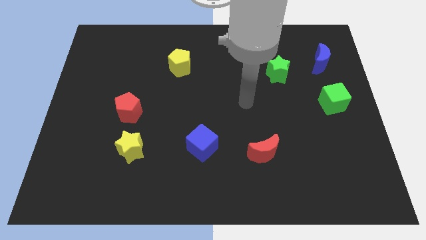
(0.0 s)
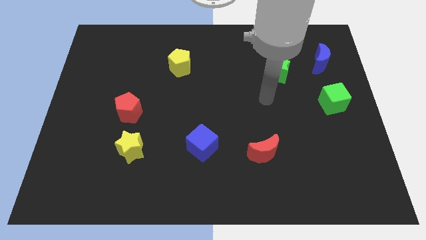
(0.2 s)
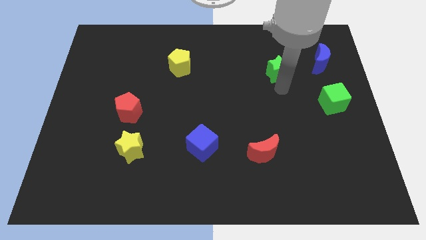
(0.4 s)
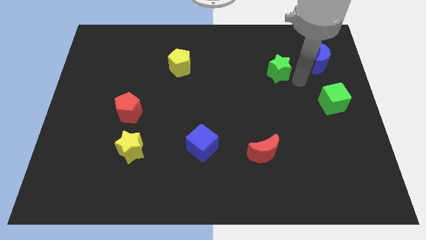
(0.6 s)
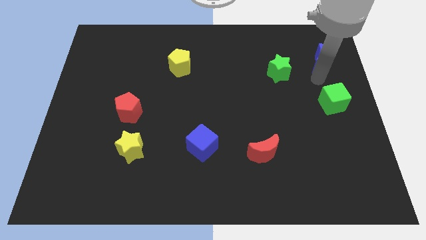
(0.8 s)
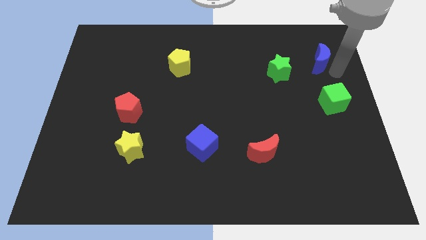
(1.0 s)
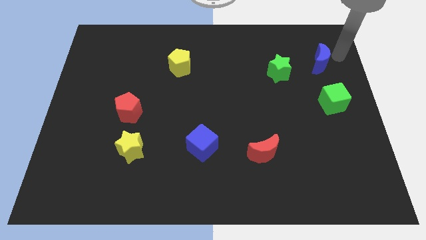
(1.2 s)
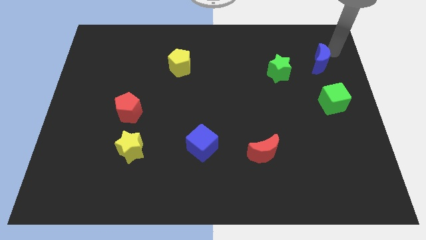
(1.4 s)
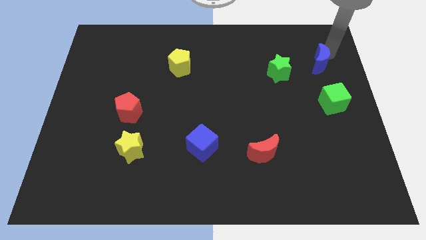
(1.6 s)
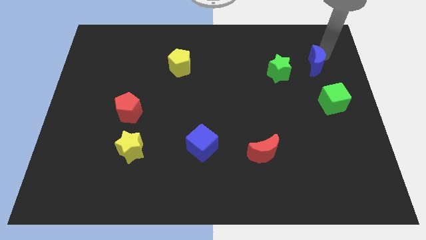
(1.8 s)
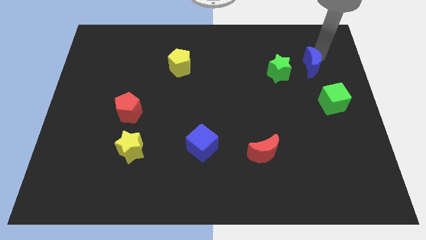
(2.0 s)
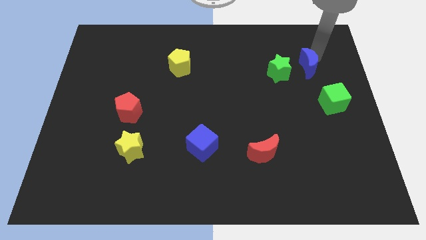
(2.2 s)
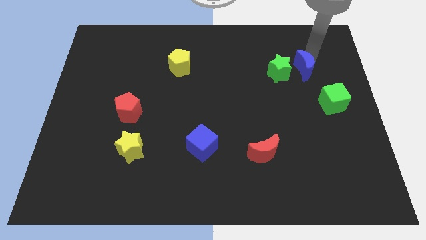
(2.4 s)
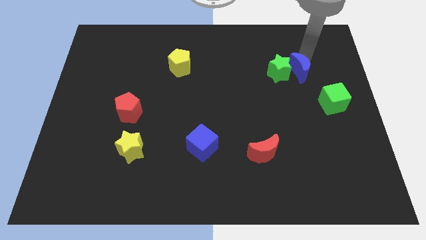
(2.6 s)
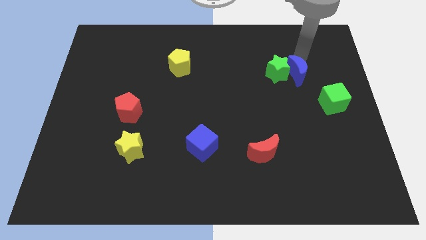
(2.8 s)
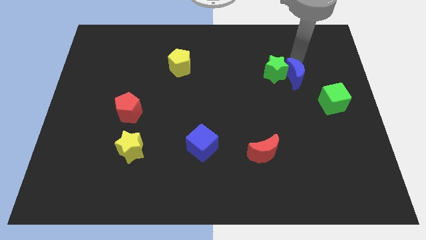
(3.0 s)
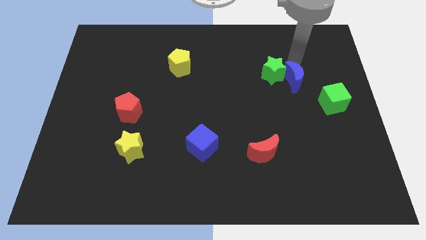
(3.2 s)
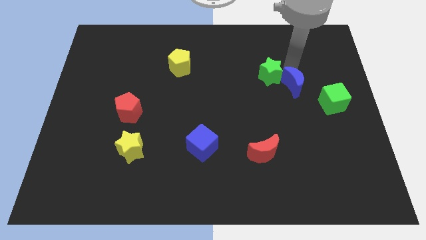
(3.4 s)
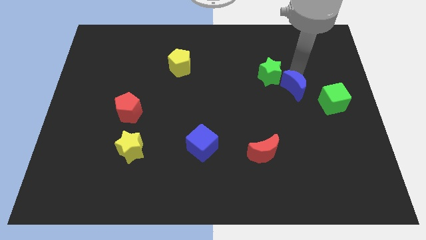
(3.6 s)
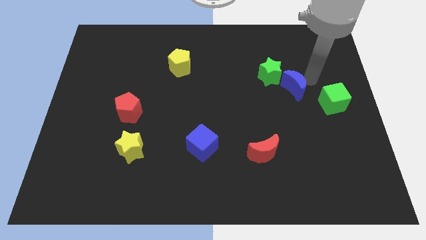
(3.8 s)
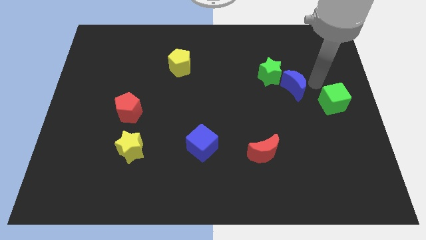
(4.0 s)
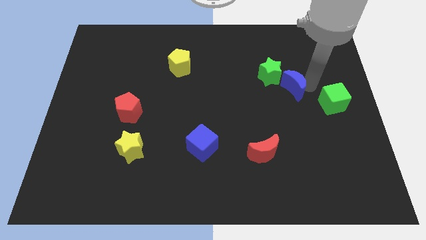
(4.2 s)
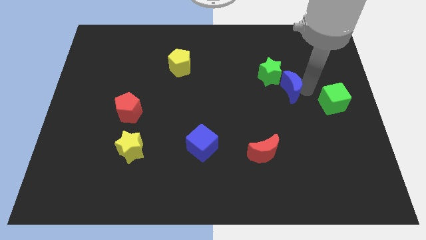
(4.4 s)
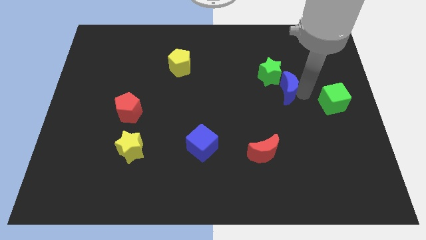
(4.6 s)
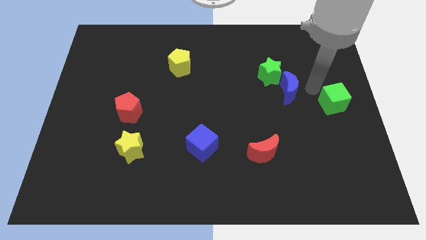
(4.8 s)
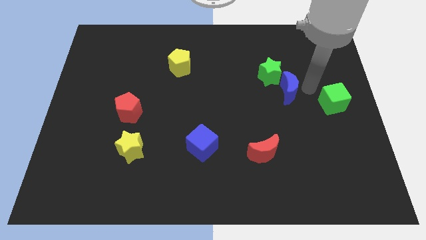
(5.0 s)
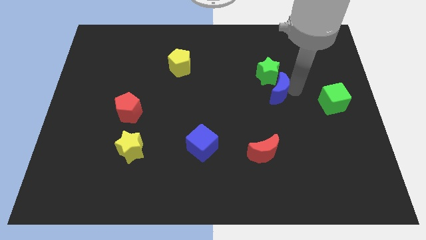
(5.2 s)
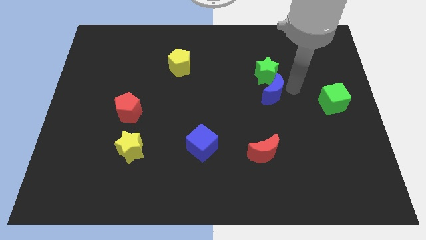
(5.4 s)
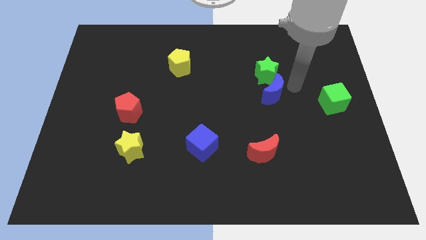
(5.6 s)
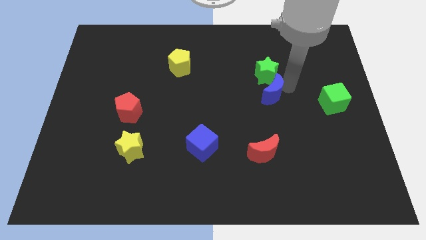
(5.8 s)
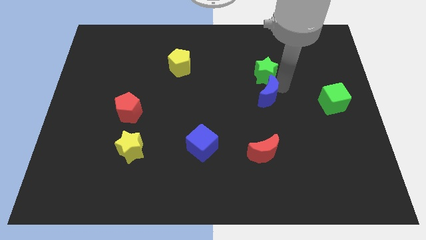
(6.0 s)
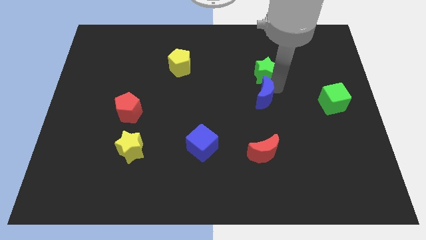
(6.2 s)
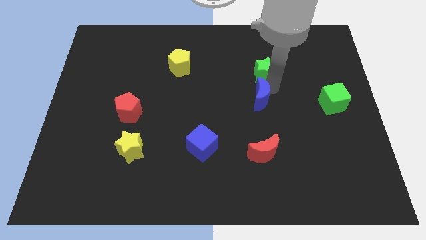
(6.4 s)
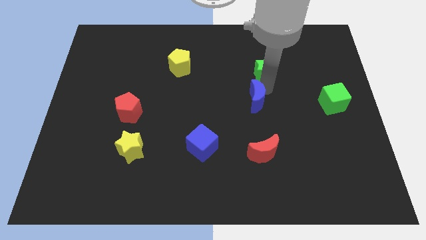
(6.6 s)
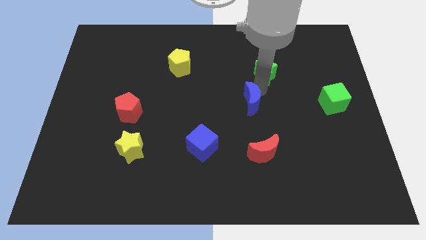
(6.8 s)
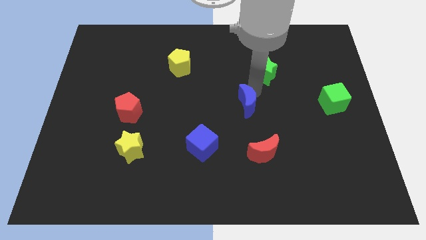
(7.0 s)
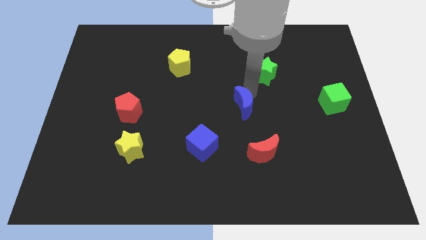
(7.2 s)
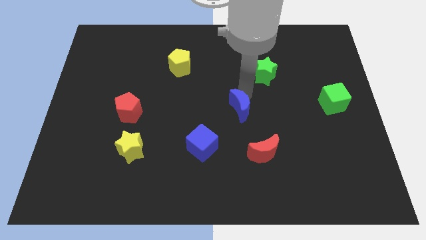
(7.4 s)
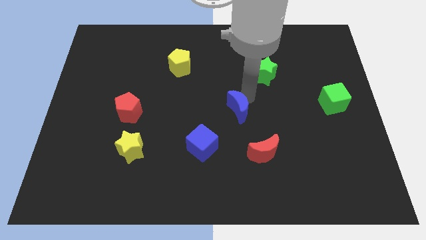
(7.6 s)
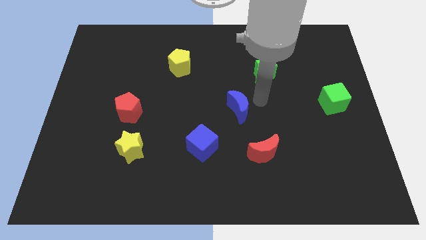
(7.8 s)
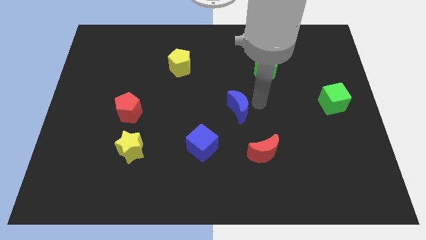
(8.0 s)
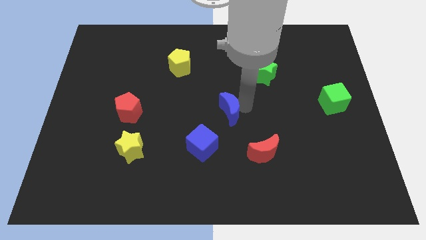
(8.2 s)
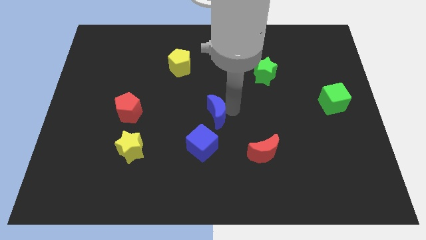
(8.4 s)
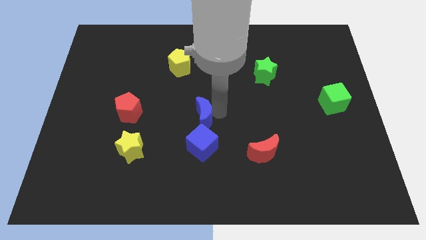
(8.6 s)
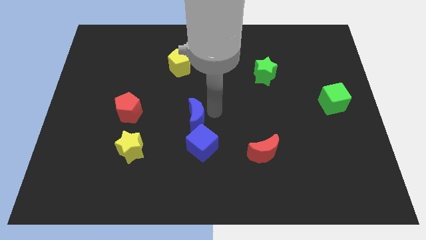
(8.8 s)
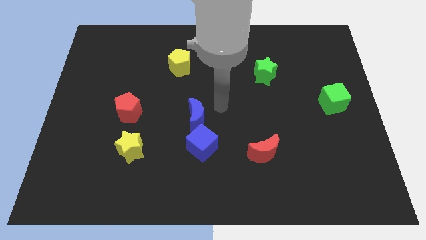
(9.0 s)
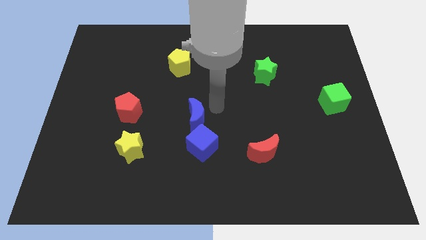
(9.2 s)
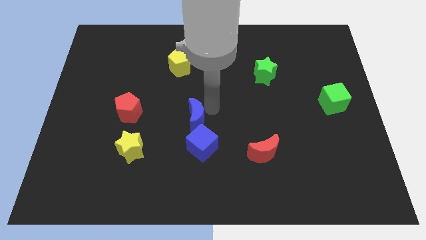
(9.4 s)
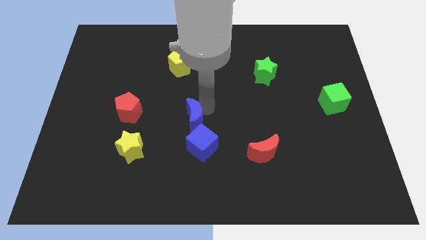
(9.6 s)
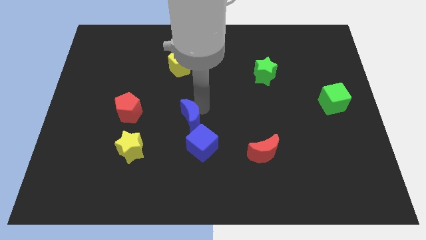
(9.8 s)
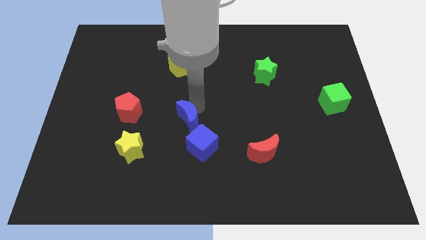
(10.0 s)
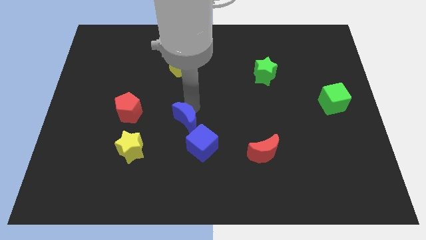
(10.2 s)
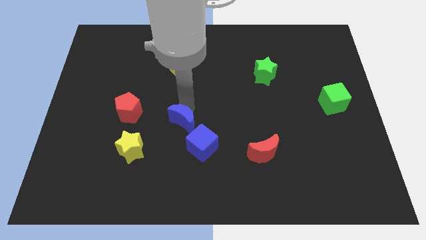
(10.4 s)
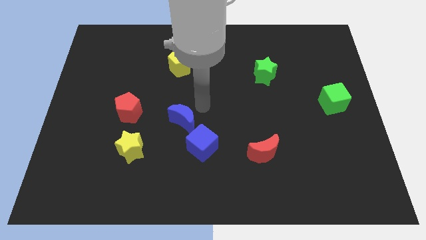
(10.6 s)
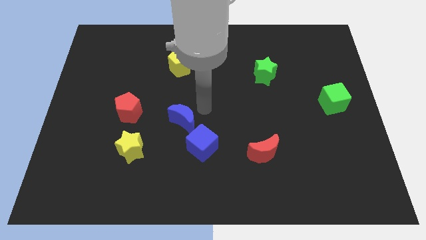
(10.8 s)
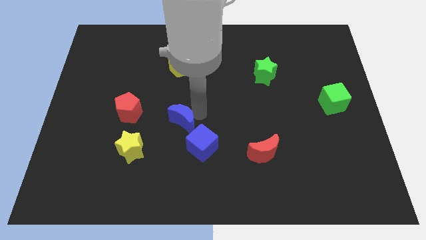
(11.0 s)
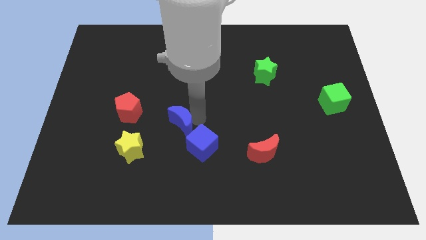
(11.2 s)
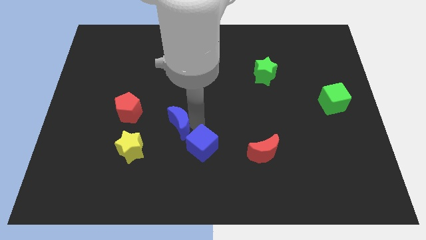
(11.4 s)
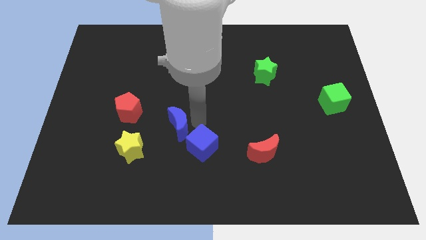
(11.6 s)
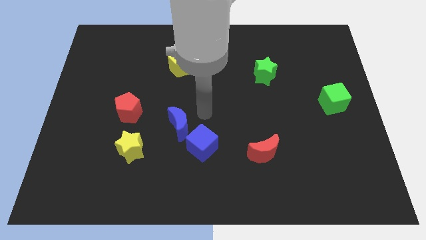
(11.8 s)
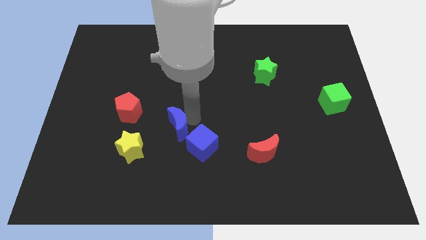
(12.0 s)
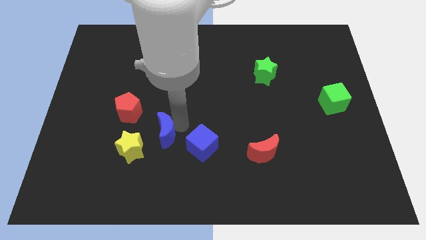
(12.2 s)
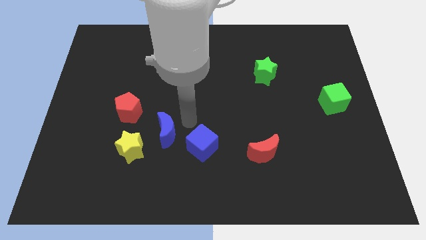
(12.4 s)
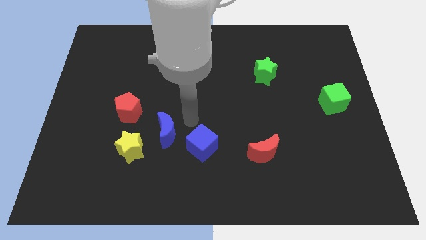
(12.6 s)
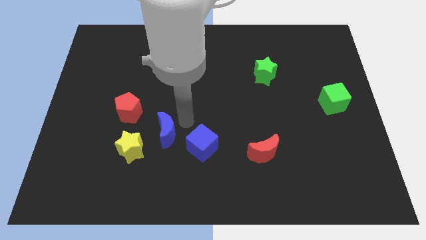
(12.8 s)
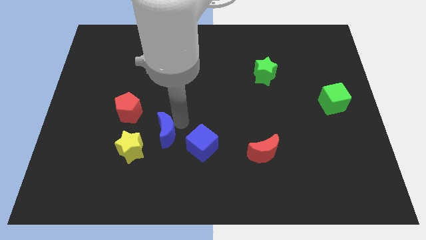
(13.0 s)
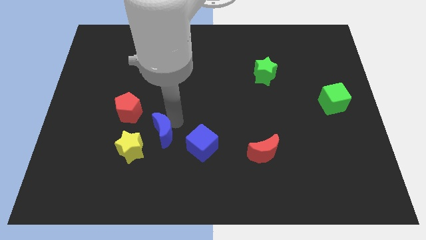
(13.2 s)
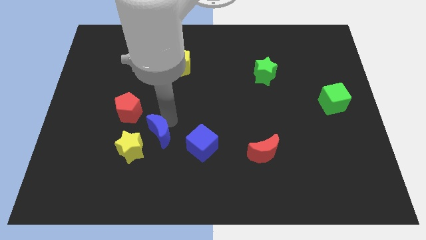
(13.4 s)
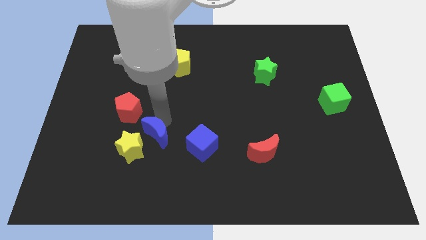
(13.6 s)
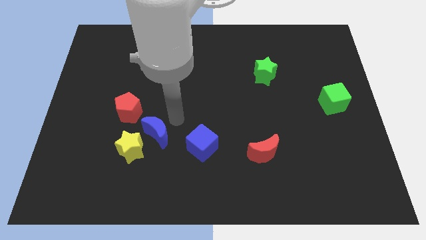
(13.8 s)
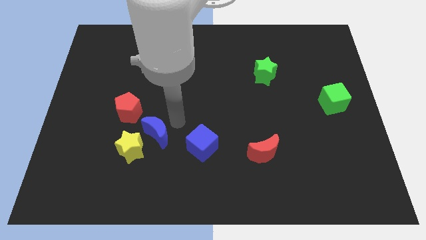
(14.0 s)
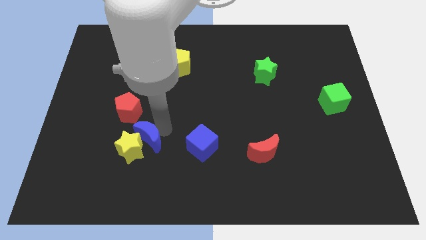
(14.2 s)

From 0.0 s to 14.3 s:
put the blue moon towards the yellow star
